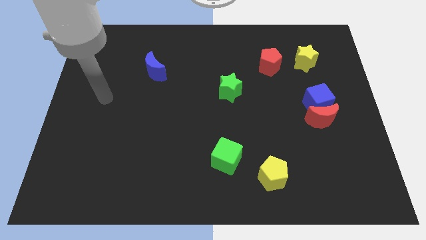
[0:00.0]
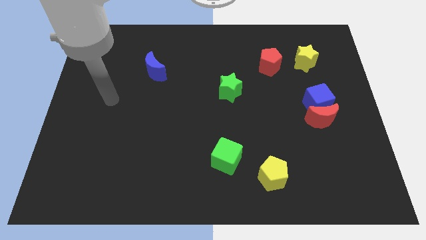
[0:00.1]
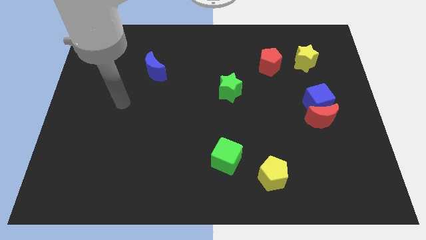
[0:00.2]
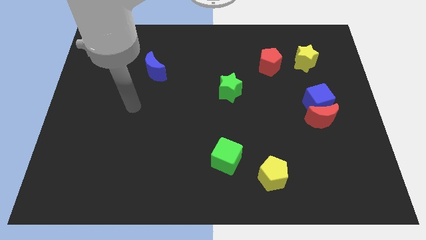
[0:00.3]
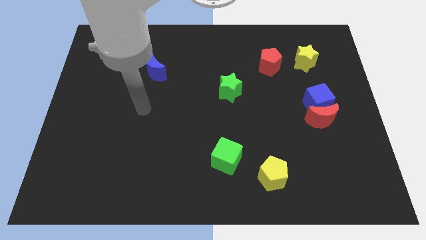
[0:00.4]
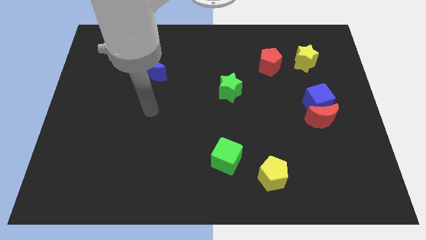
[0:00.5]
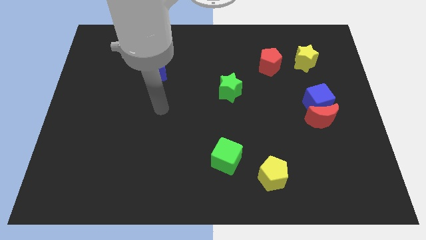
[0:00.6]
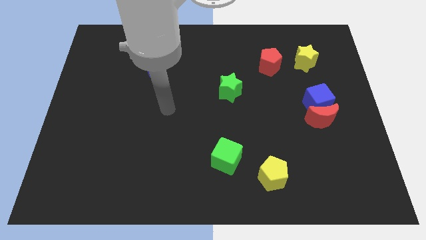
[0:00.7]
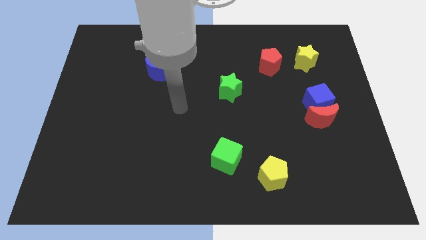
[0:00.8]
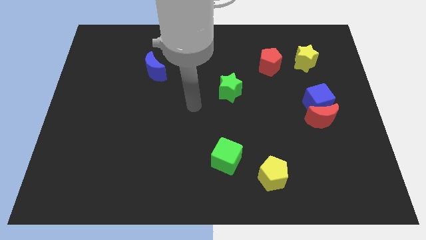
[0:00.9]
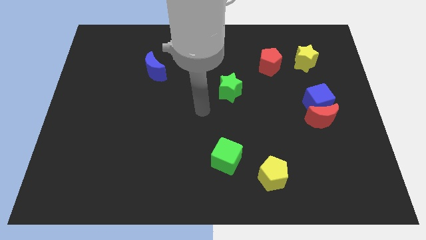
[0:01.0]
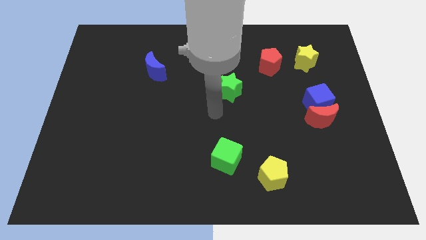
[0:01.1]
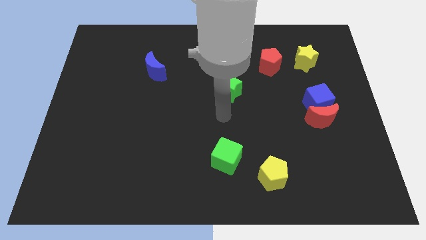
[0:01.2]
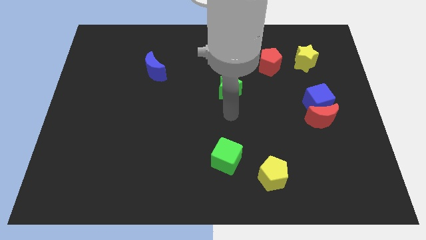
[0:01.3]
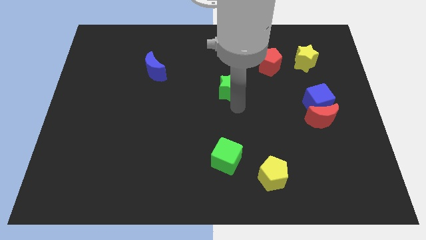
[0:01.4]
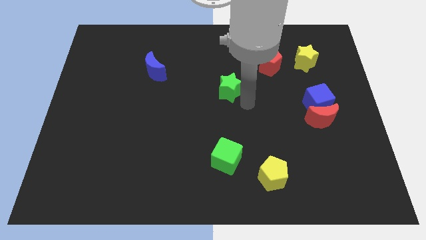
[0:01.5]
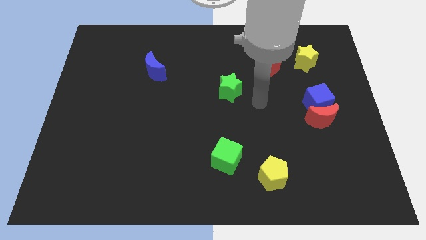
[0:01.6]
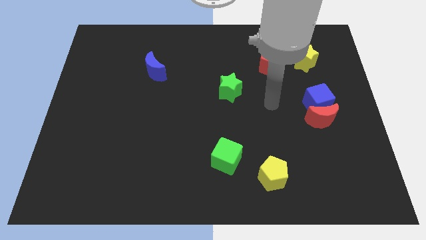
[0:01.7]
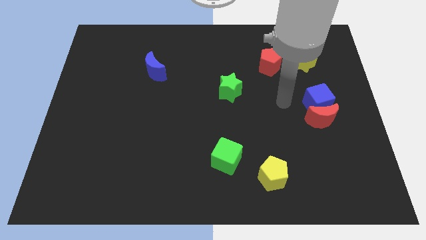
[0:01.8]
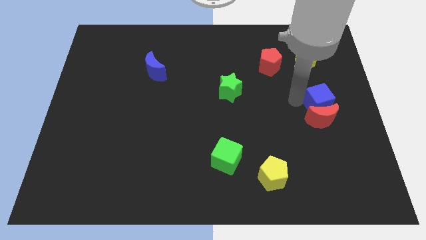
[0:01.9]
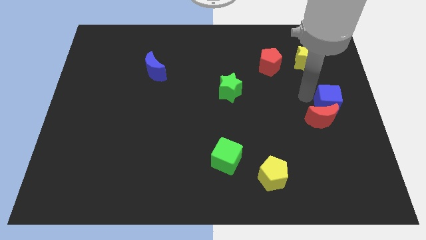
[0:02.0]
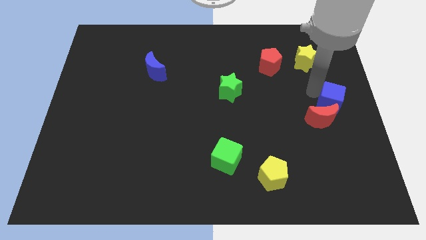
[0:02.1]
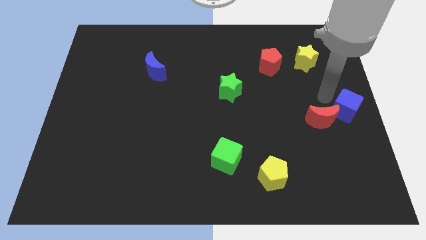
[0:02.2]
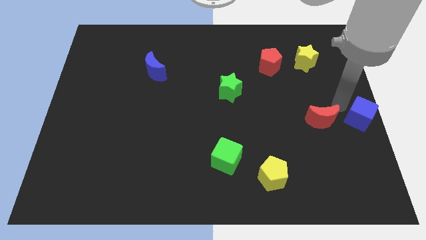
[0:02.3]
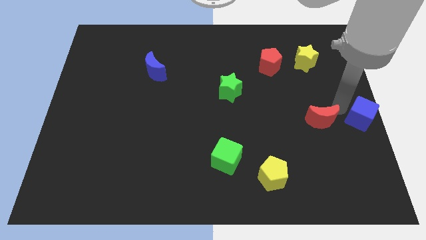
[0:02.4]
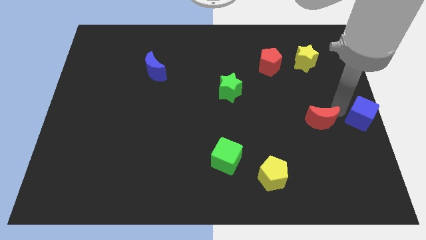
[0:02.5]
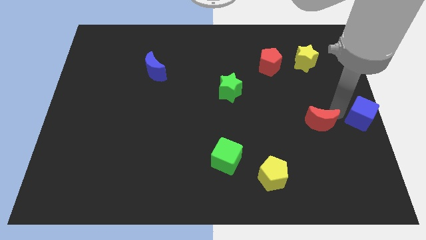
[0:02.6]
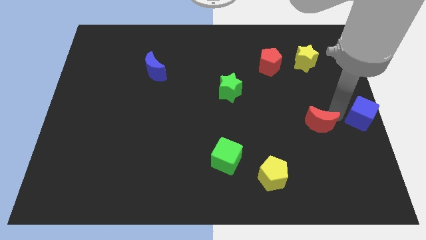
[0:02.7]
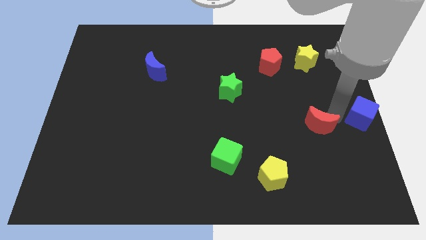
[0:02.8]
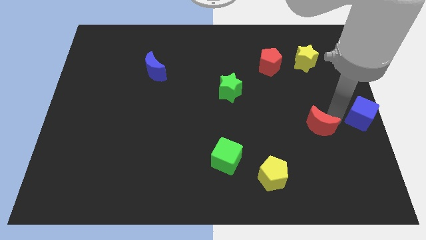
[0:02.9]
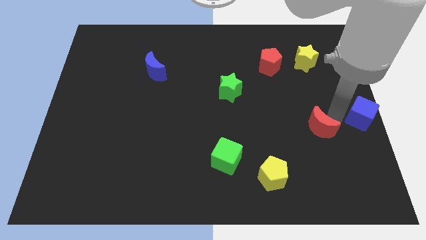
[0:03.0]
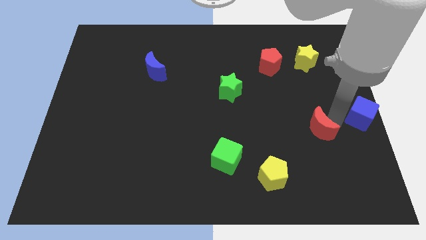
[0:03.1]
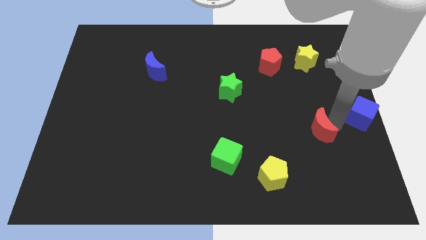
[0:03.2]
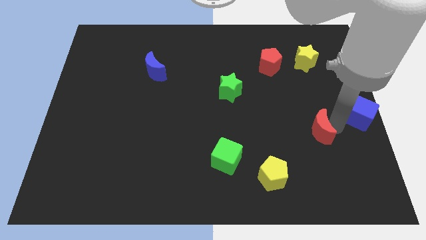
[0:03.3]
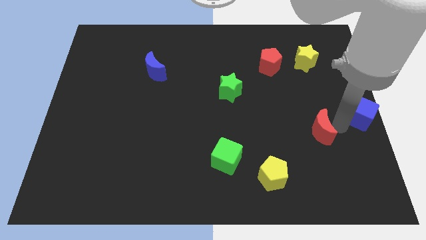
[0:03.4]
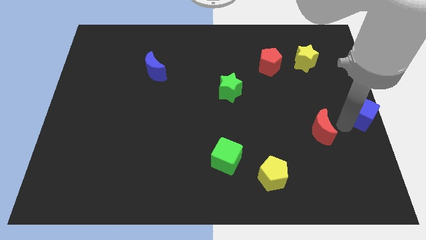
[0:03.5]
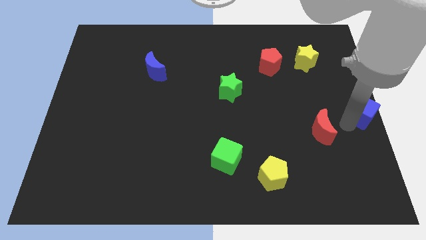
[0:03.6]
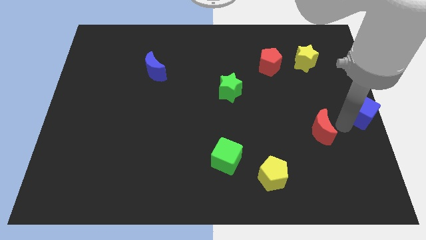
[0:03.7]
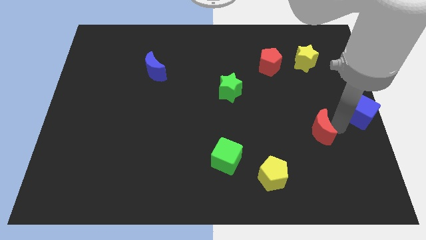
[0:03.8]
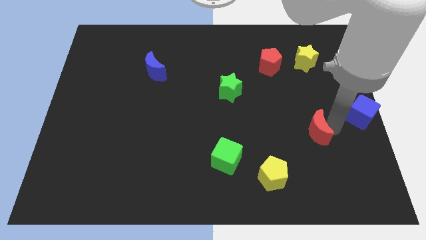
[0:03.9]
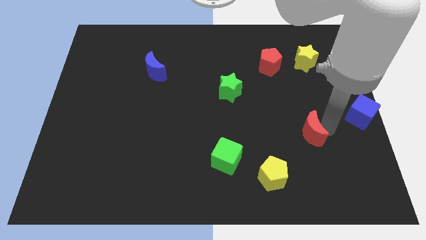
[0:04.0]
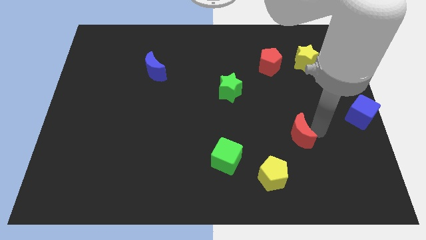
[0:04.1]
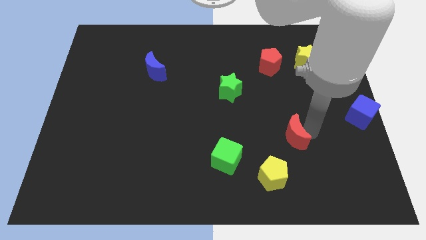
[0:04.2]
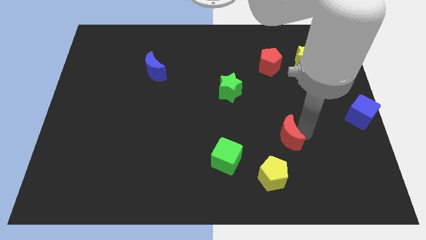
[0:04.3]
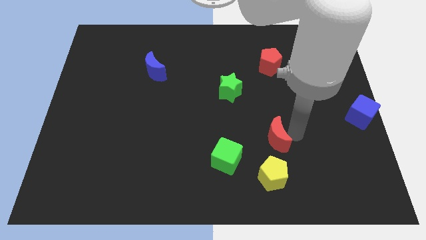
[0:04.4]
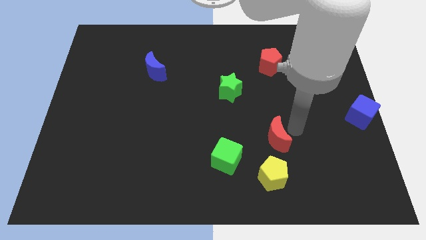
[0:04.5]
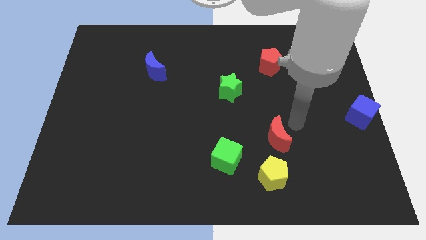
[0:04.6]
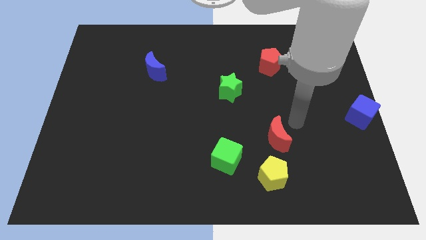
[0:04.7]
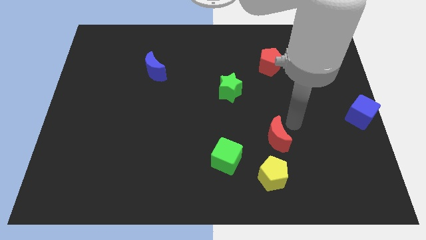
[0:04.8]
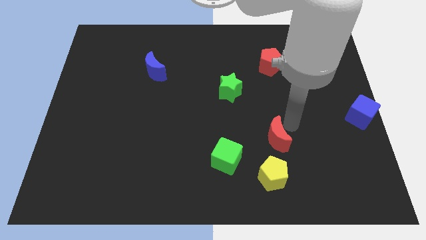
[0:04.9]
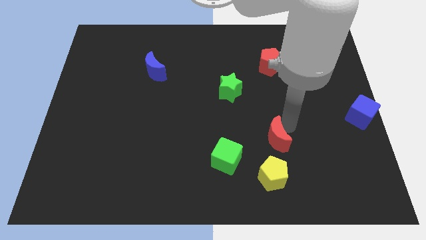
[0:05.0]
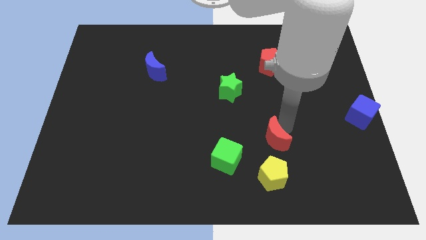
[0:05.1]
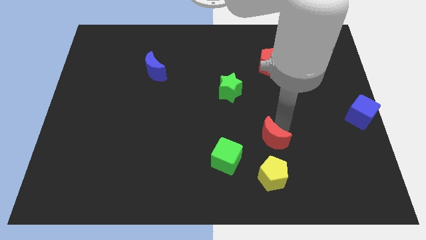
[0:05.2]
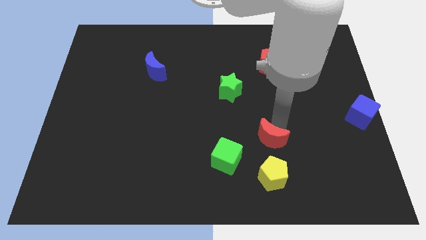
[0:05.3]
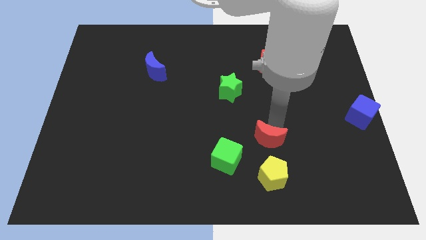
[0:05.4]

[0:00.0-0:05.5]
slide the red moon to the right of the green cube

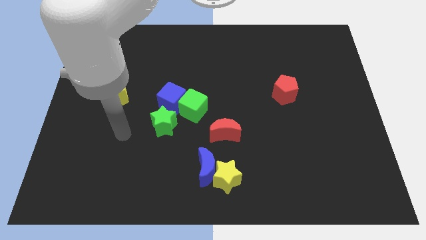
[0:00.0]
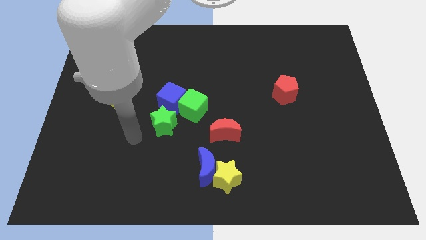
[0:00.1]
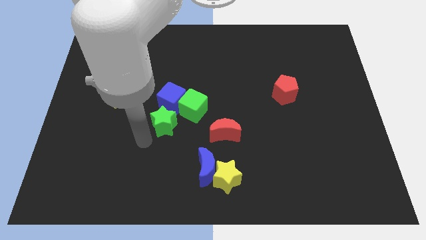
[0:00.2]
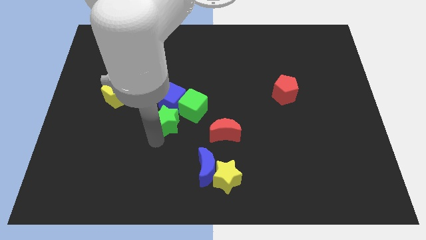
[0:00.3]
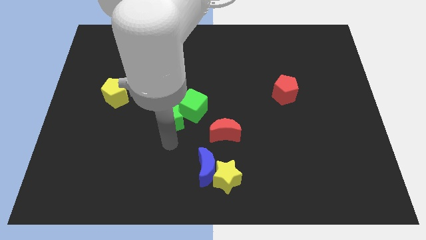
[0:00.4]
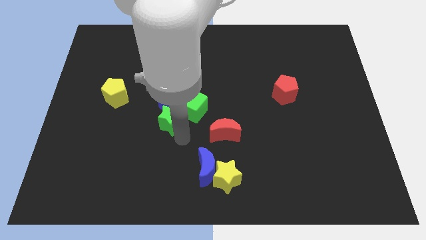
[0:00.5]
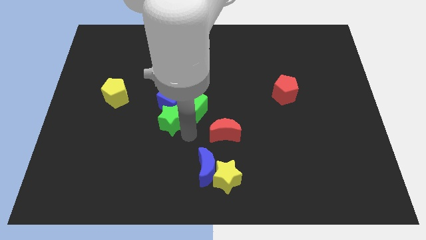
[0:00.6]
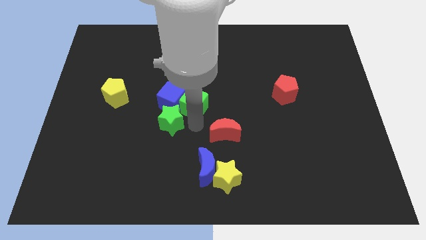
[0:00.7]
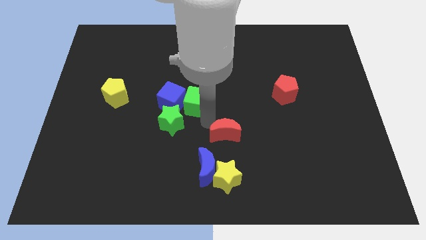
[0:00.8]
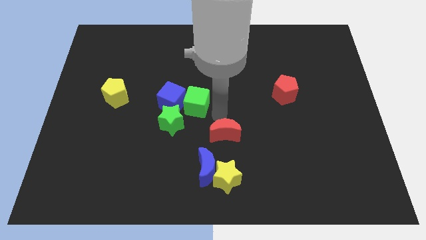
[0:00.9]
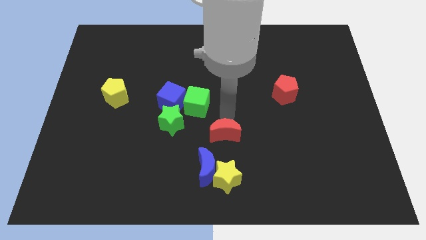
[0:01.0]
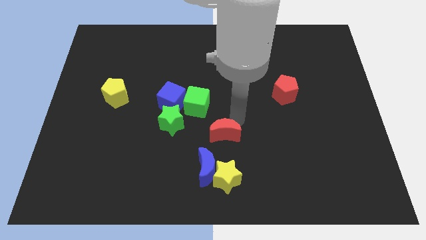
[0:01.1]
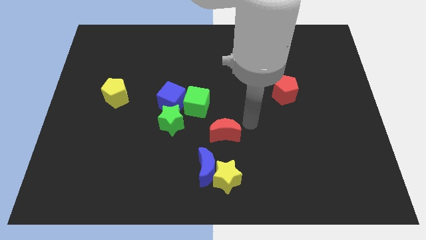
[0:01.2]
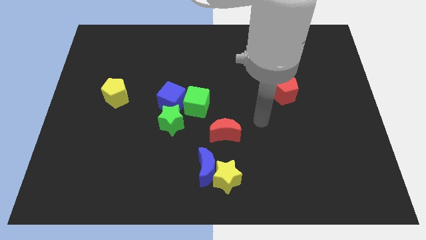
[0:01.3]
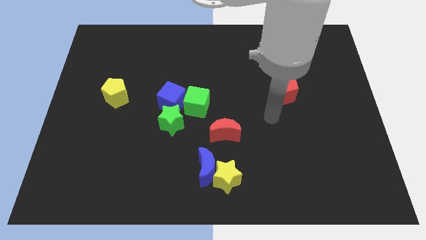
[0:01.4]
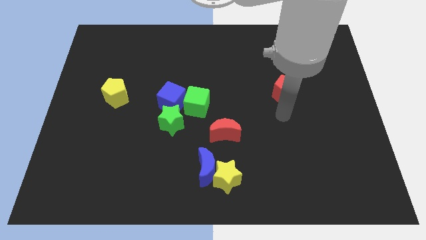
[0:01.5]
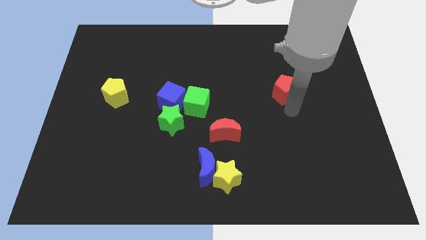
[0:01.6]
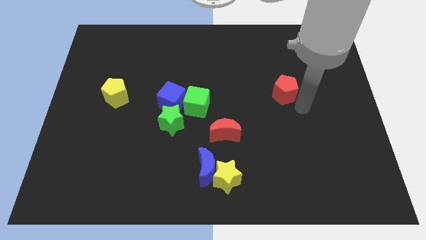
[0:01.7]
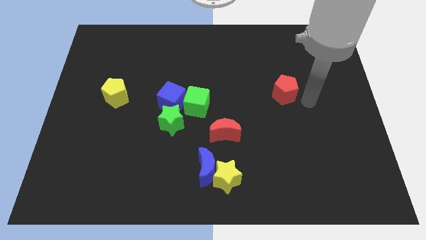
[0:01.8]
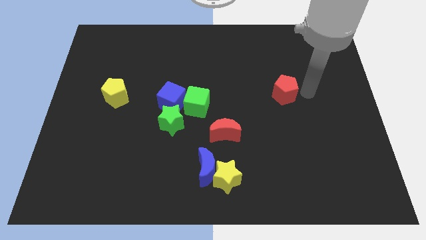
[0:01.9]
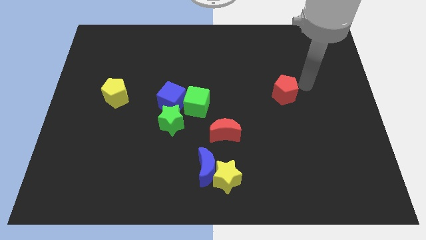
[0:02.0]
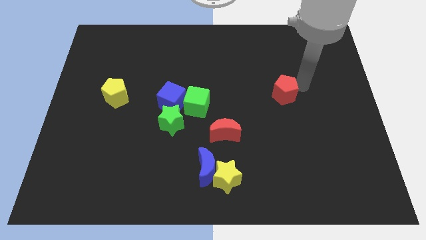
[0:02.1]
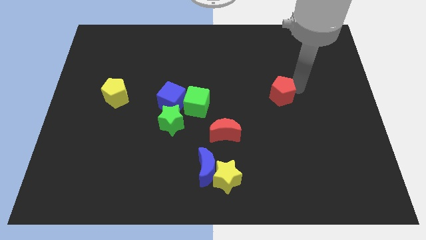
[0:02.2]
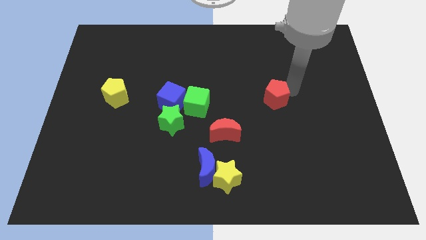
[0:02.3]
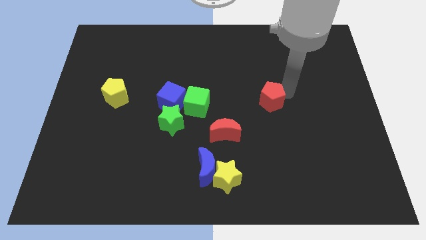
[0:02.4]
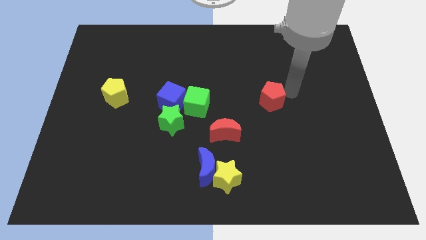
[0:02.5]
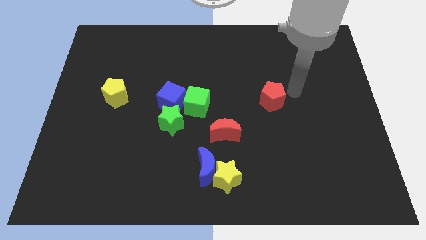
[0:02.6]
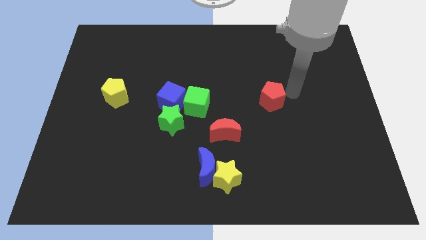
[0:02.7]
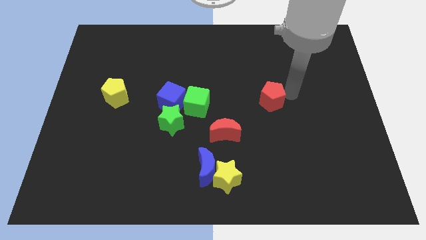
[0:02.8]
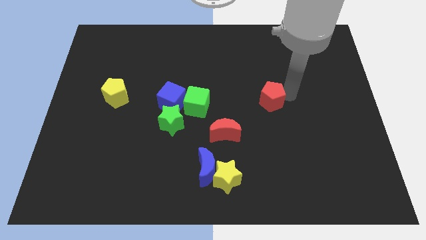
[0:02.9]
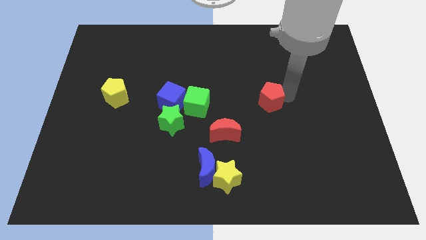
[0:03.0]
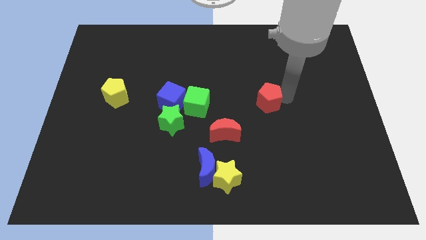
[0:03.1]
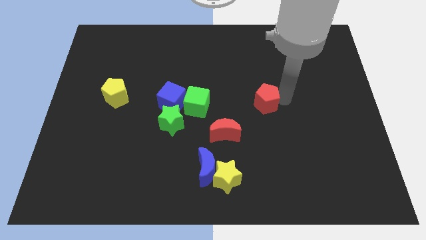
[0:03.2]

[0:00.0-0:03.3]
put the red pentagon right of the green cube
